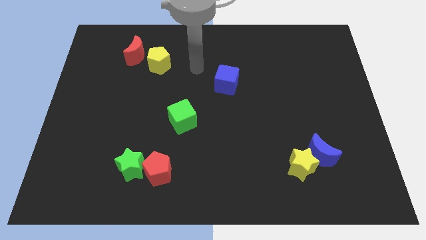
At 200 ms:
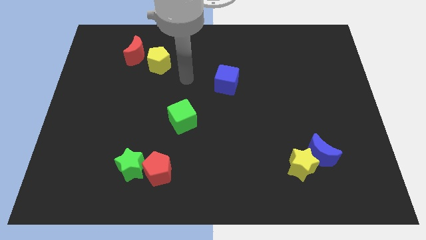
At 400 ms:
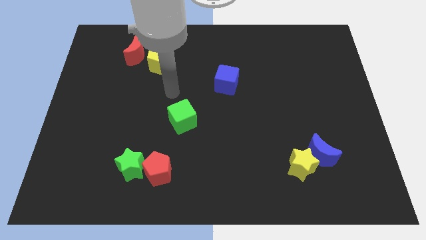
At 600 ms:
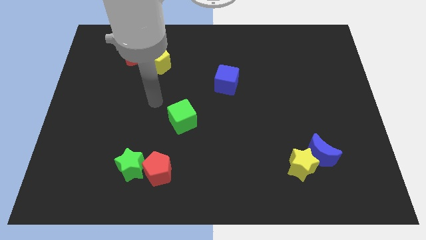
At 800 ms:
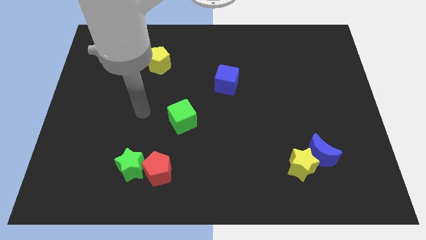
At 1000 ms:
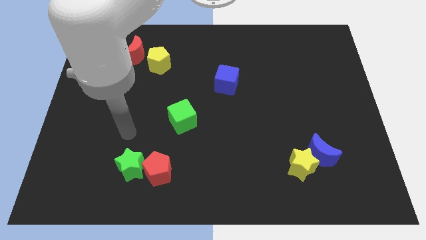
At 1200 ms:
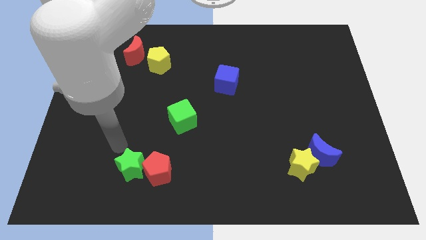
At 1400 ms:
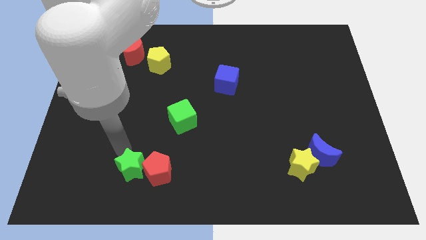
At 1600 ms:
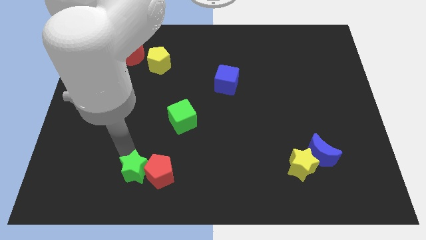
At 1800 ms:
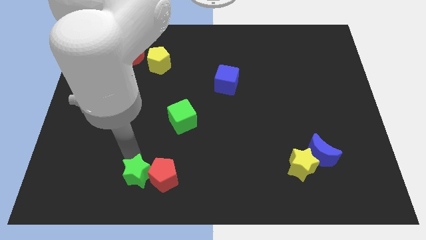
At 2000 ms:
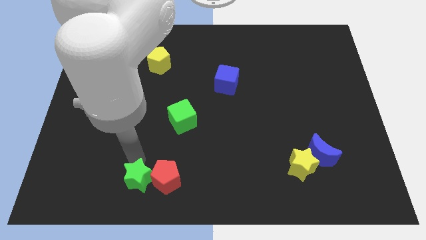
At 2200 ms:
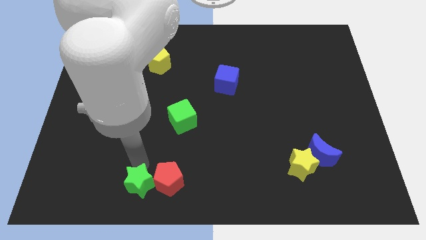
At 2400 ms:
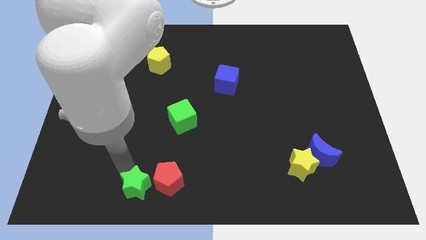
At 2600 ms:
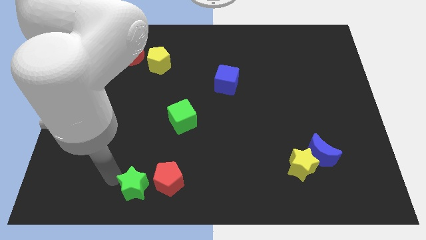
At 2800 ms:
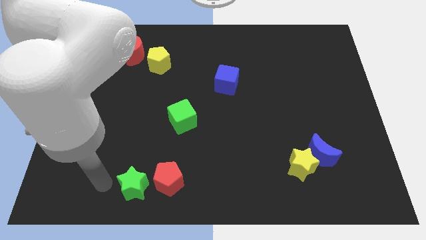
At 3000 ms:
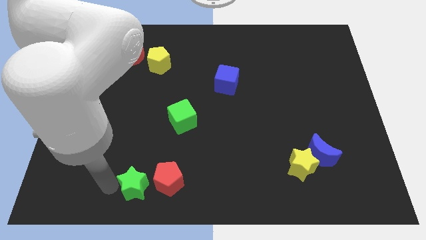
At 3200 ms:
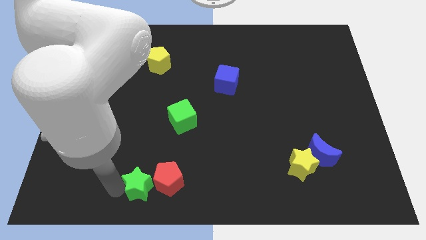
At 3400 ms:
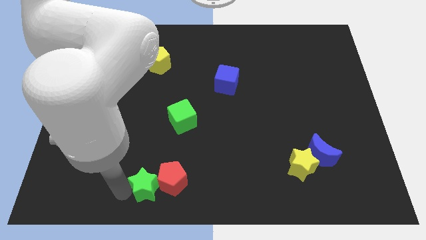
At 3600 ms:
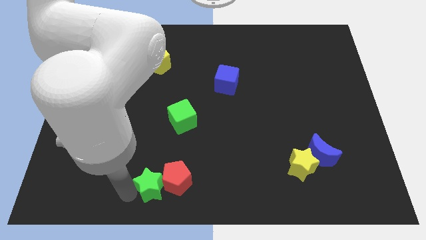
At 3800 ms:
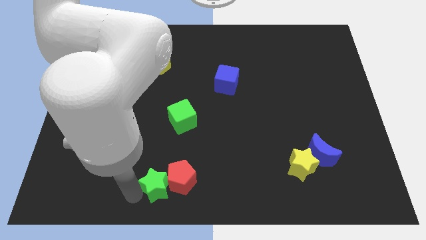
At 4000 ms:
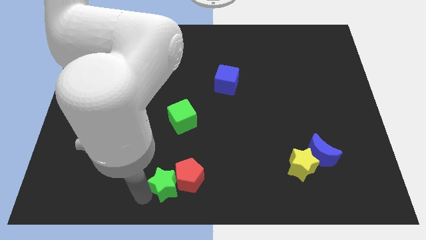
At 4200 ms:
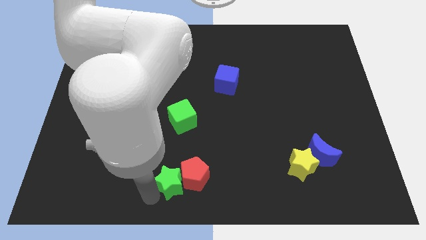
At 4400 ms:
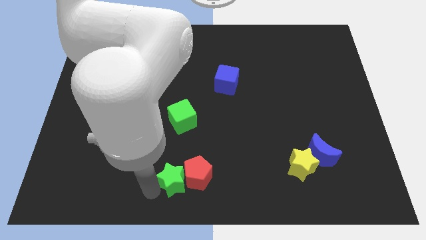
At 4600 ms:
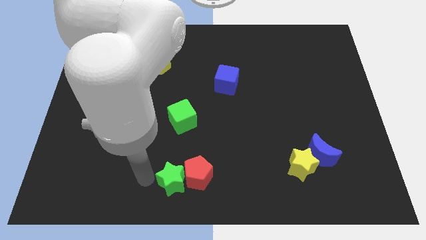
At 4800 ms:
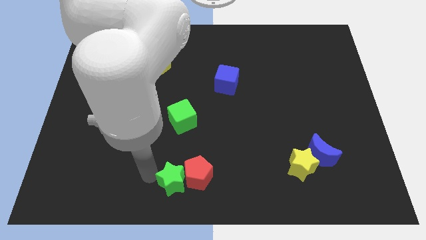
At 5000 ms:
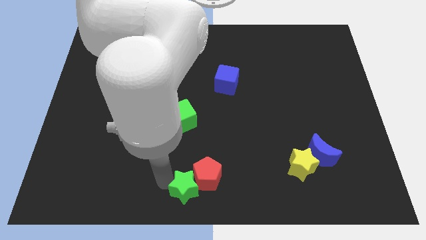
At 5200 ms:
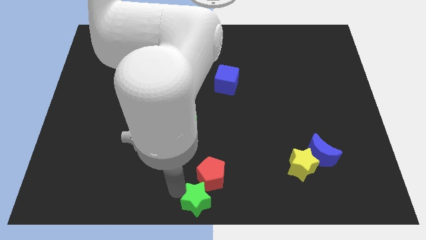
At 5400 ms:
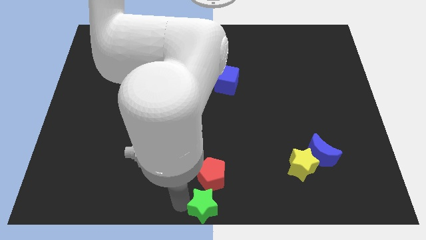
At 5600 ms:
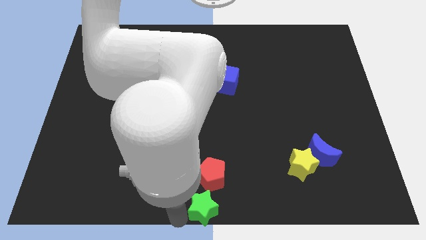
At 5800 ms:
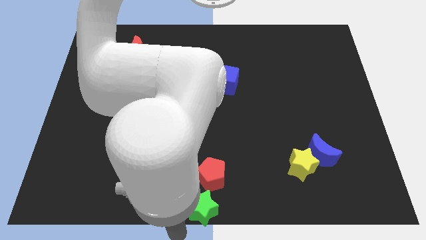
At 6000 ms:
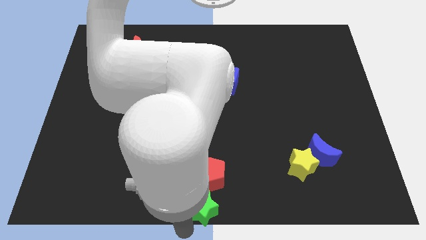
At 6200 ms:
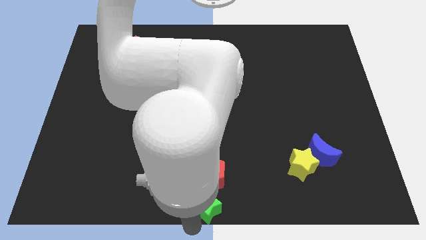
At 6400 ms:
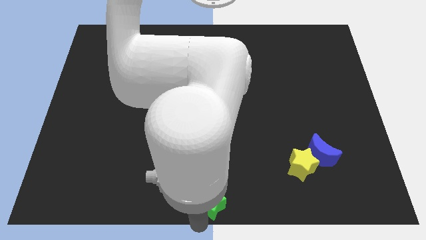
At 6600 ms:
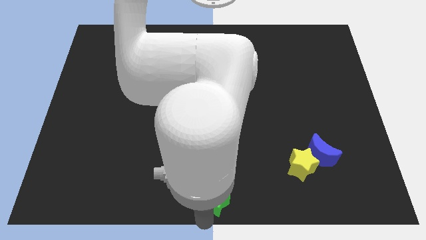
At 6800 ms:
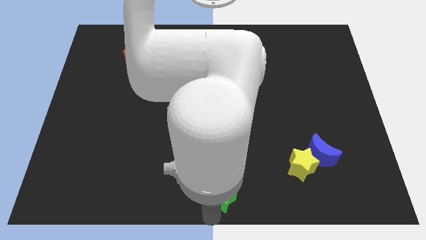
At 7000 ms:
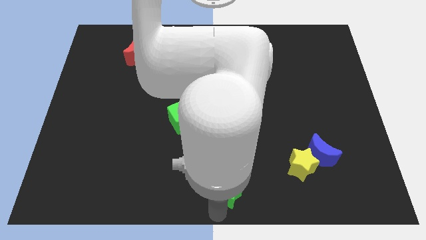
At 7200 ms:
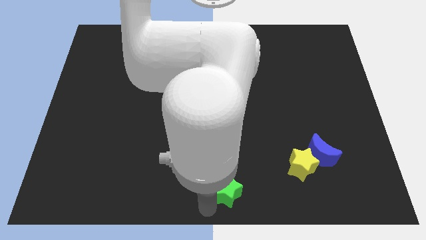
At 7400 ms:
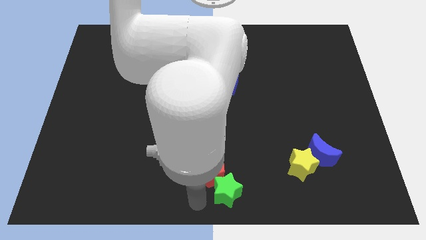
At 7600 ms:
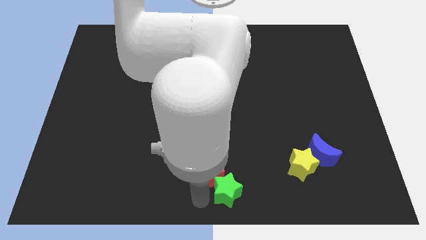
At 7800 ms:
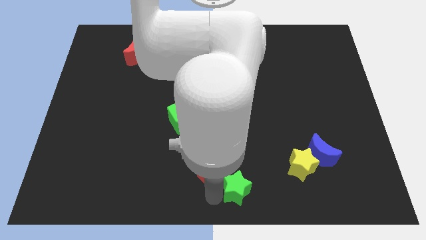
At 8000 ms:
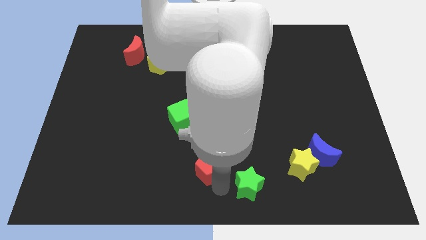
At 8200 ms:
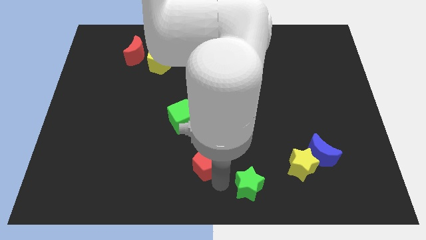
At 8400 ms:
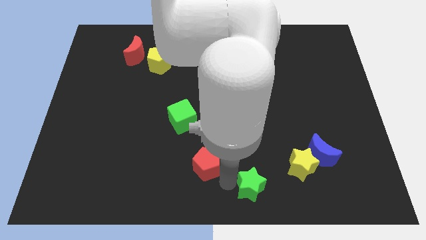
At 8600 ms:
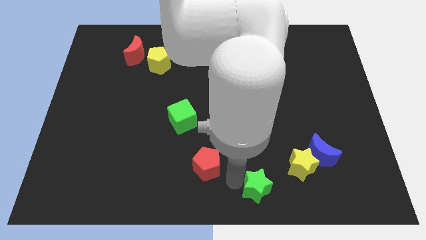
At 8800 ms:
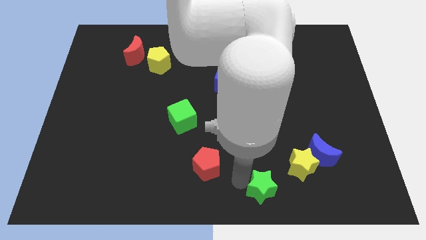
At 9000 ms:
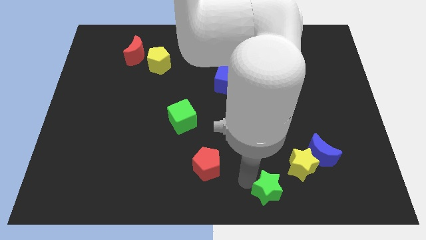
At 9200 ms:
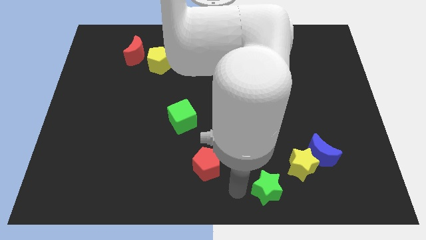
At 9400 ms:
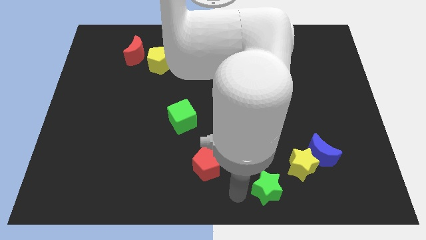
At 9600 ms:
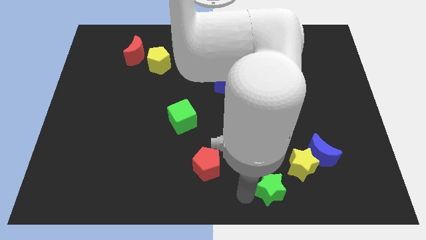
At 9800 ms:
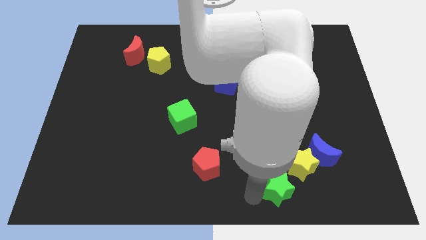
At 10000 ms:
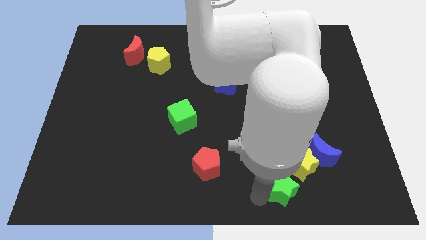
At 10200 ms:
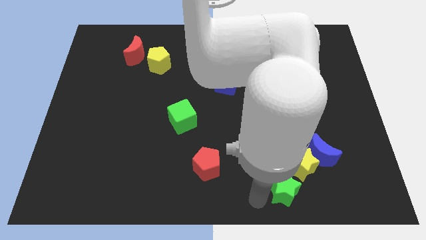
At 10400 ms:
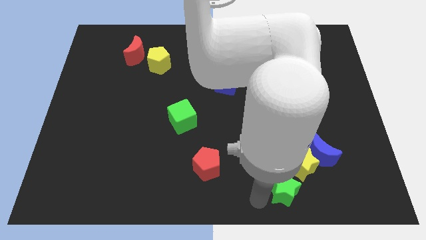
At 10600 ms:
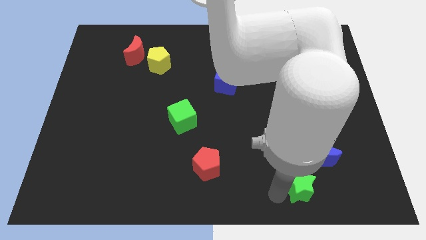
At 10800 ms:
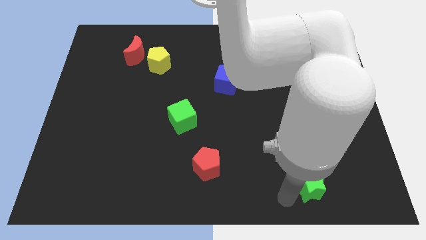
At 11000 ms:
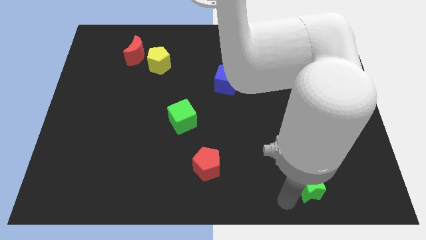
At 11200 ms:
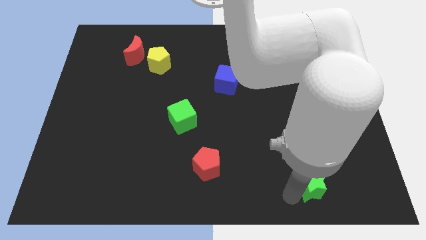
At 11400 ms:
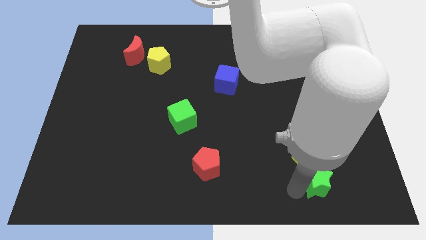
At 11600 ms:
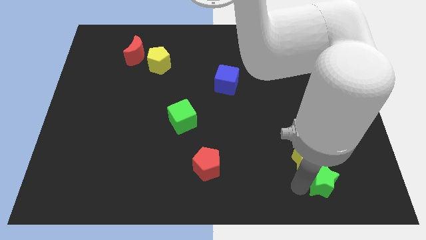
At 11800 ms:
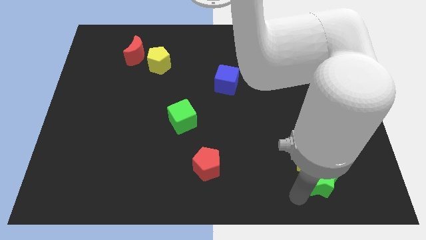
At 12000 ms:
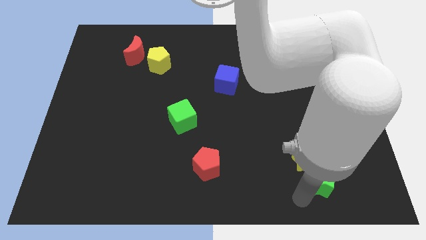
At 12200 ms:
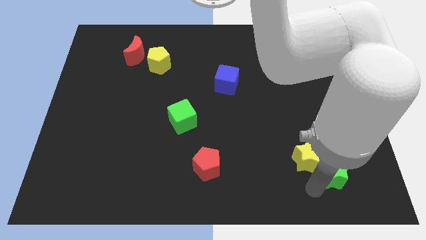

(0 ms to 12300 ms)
put the green star to the right side of the yellow star
